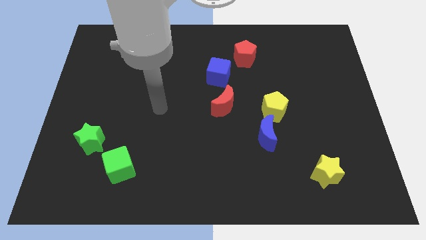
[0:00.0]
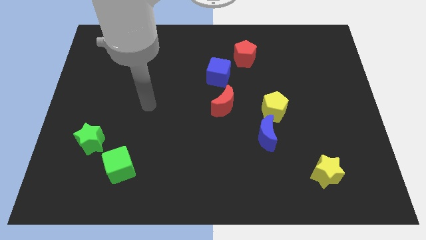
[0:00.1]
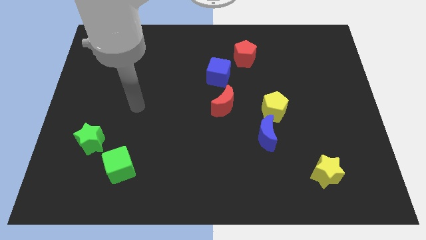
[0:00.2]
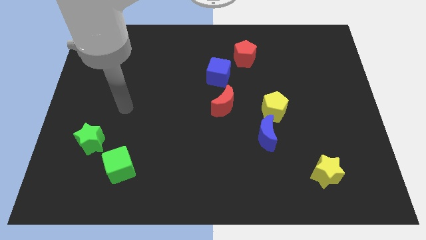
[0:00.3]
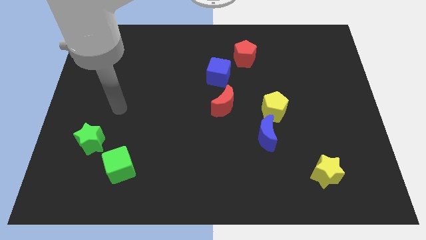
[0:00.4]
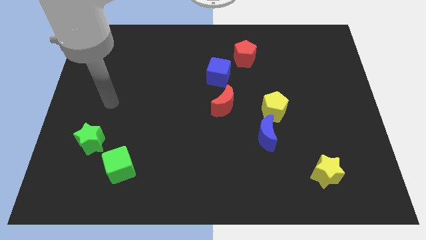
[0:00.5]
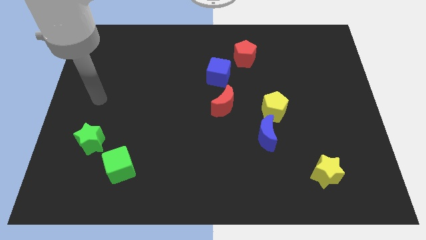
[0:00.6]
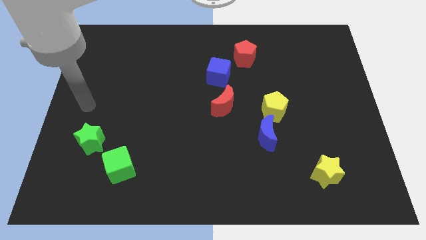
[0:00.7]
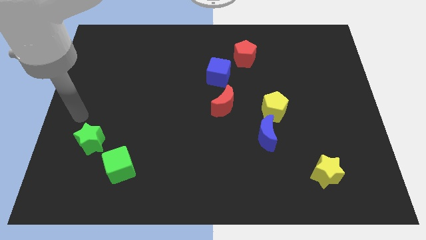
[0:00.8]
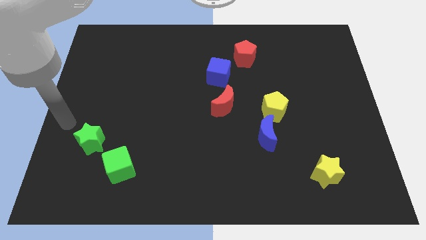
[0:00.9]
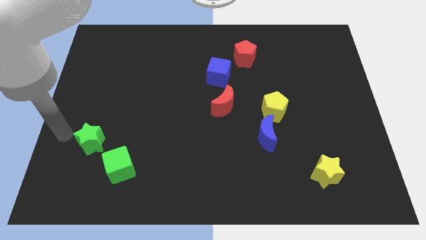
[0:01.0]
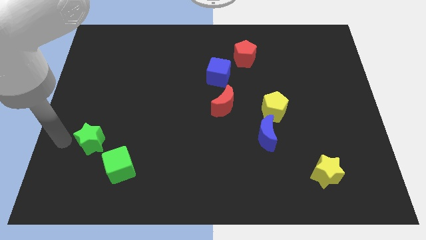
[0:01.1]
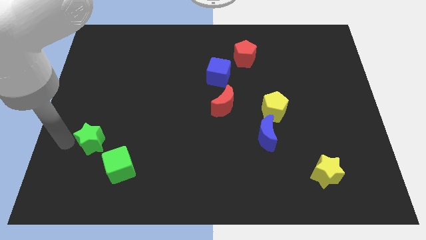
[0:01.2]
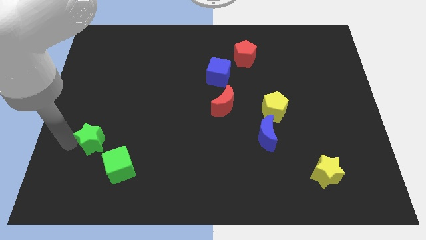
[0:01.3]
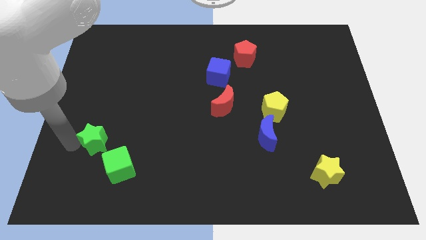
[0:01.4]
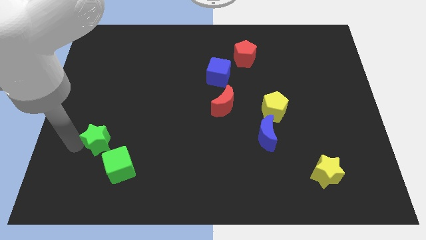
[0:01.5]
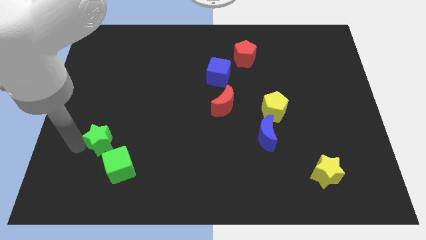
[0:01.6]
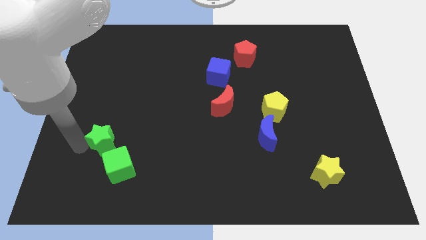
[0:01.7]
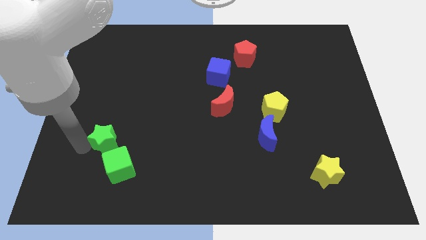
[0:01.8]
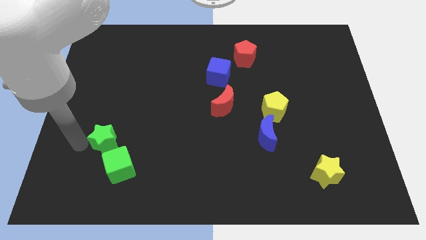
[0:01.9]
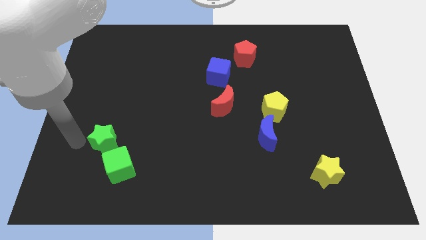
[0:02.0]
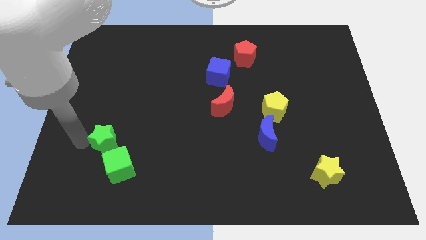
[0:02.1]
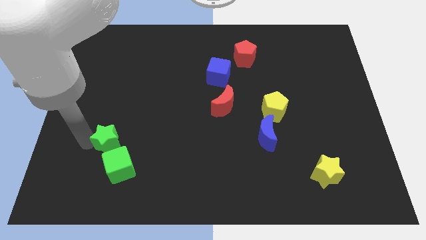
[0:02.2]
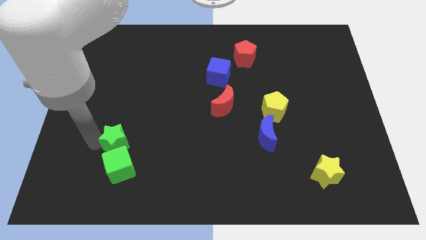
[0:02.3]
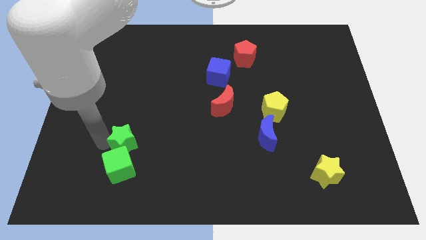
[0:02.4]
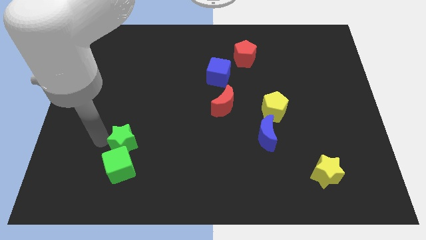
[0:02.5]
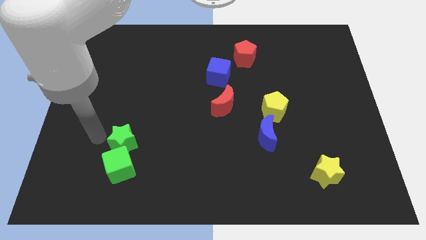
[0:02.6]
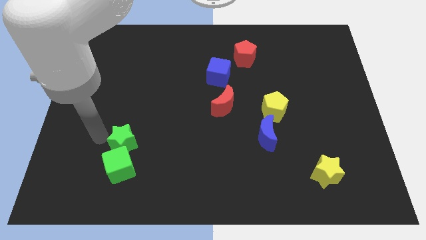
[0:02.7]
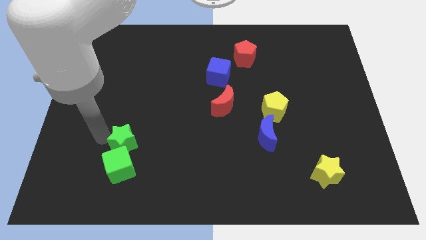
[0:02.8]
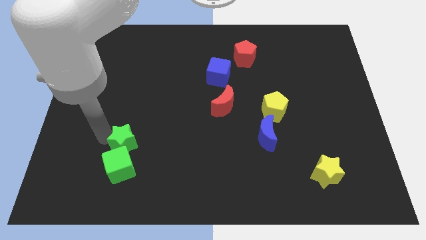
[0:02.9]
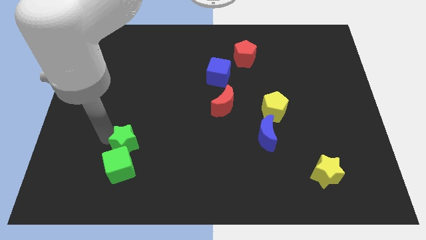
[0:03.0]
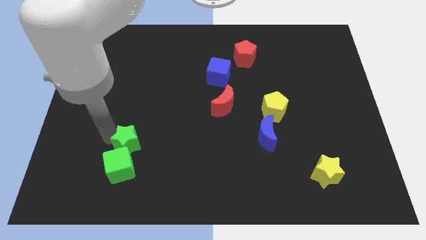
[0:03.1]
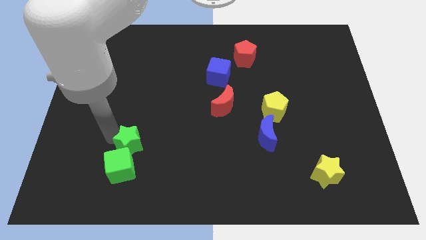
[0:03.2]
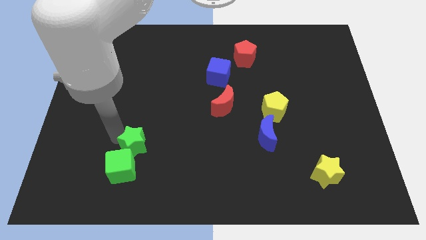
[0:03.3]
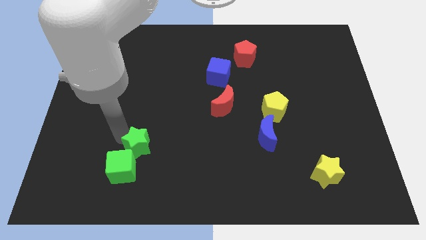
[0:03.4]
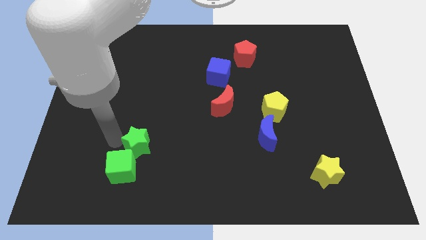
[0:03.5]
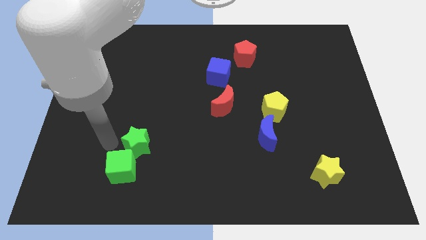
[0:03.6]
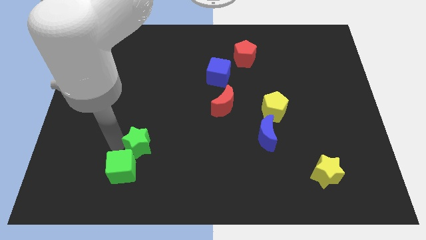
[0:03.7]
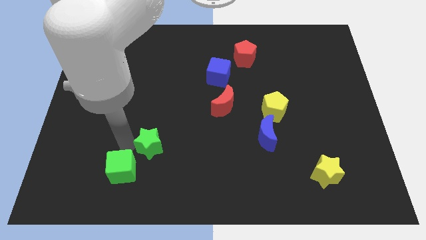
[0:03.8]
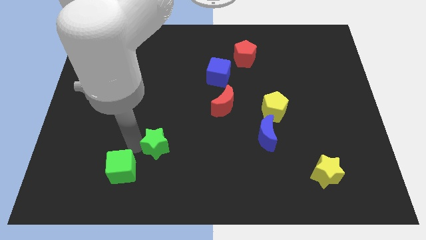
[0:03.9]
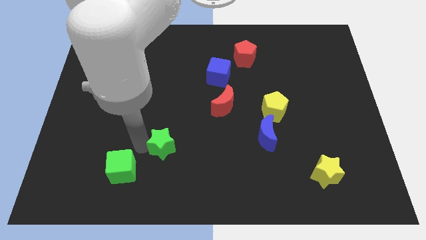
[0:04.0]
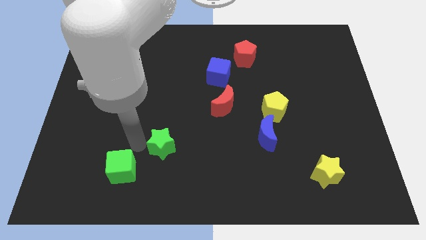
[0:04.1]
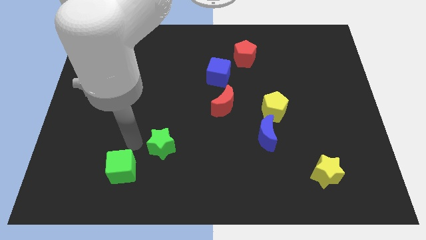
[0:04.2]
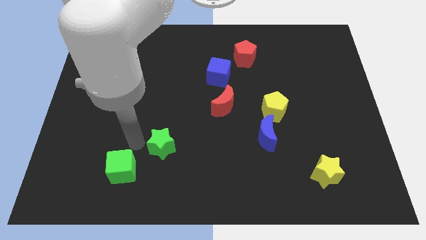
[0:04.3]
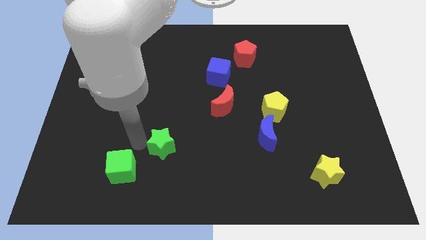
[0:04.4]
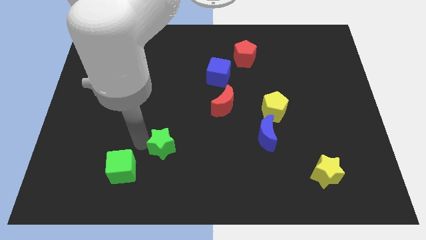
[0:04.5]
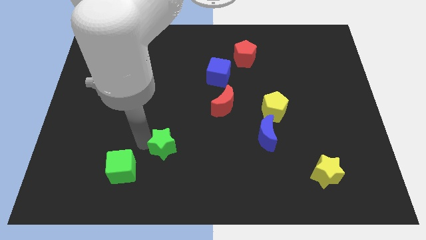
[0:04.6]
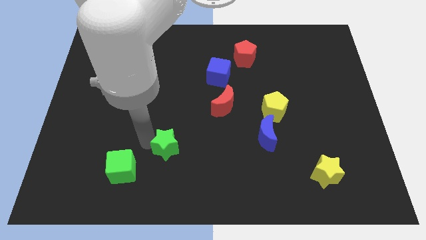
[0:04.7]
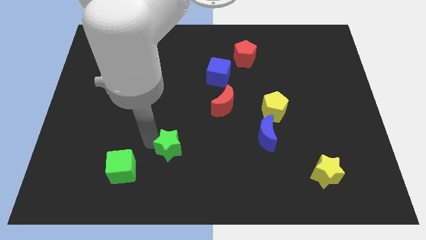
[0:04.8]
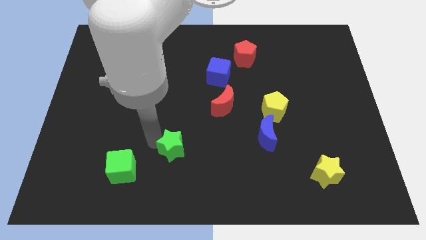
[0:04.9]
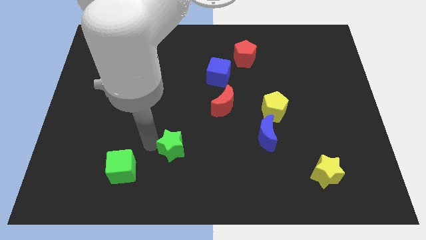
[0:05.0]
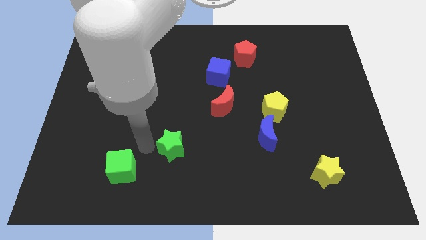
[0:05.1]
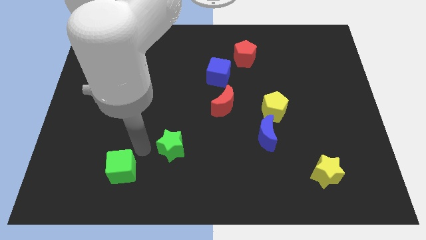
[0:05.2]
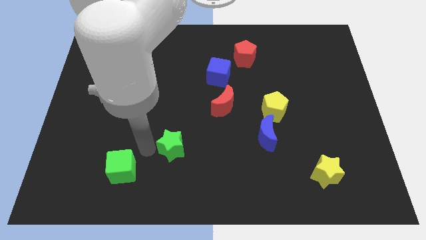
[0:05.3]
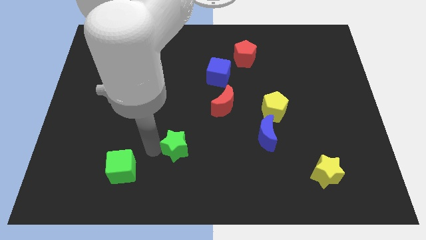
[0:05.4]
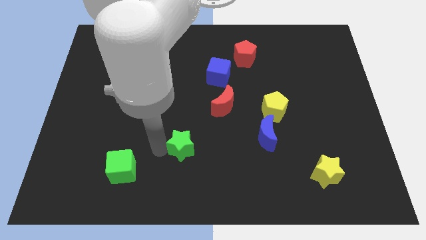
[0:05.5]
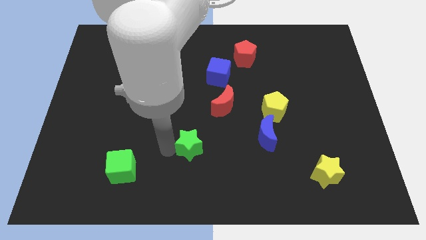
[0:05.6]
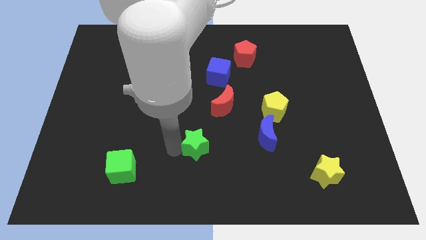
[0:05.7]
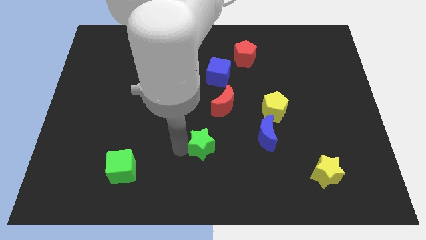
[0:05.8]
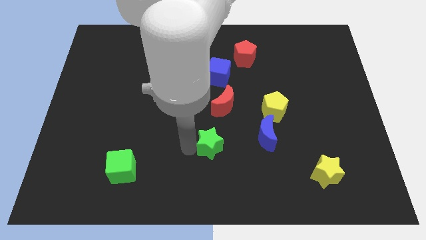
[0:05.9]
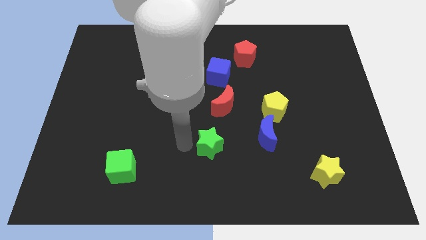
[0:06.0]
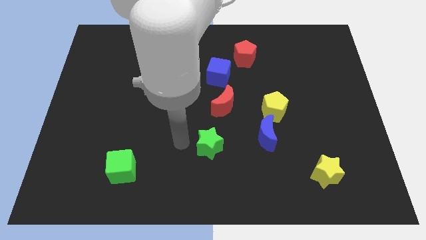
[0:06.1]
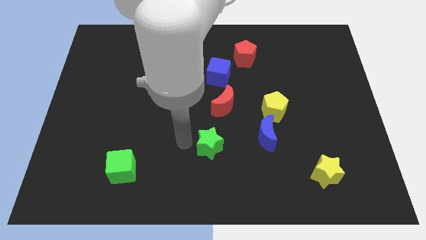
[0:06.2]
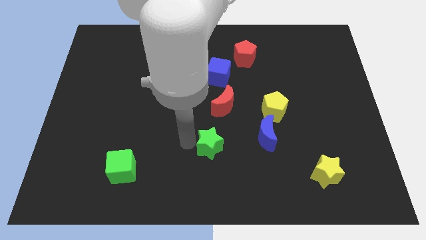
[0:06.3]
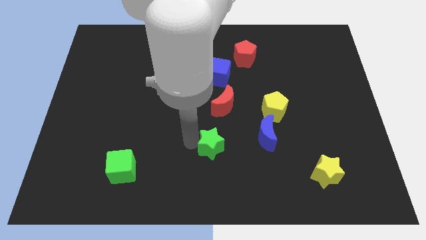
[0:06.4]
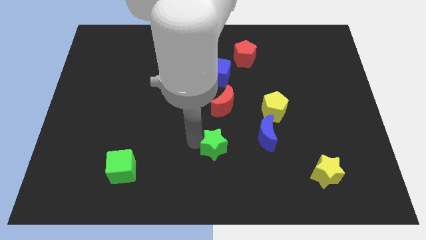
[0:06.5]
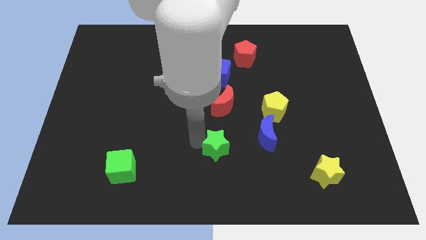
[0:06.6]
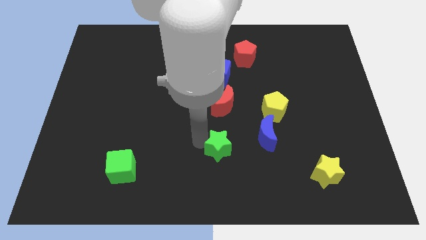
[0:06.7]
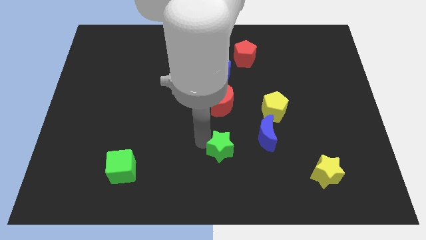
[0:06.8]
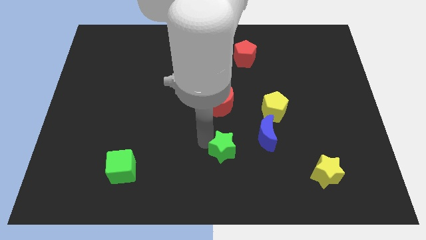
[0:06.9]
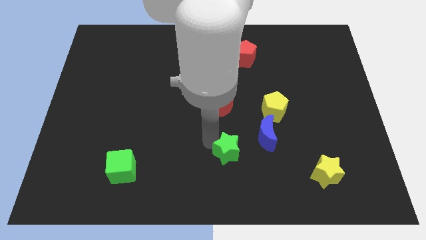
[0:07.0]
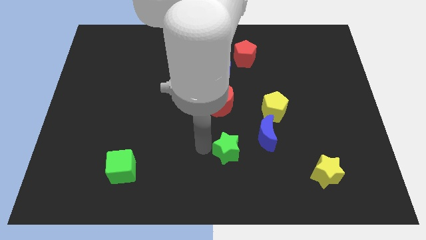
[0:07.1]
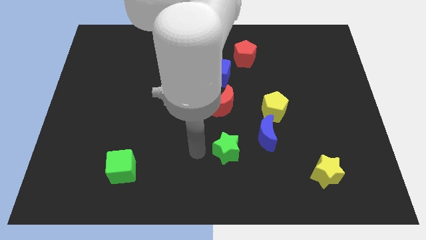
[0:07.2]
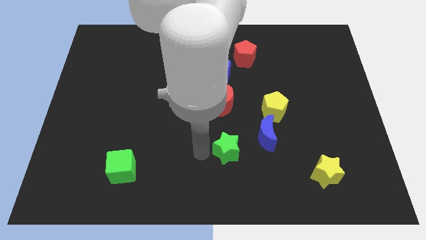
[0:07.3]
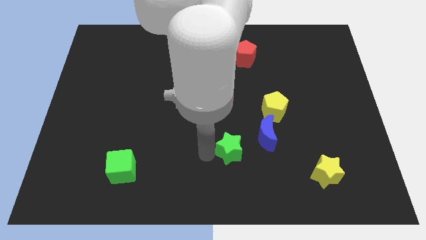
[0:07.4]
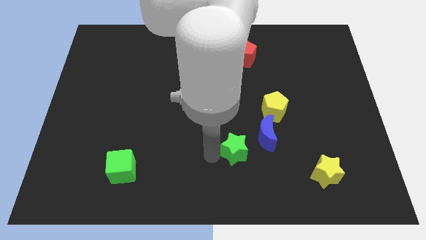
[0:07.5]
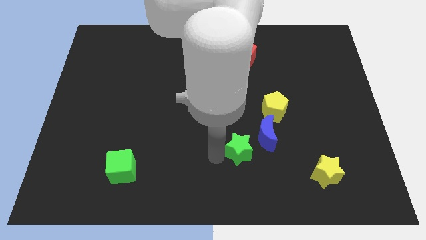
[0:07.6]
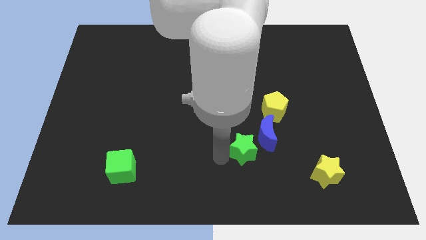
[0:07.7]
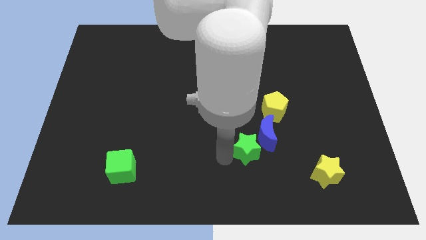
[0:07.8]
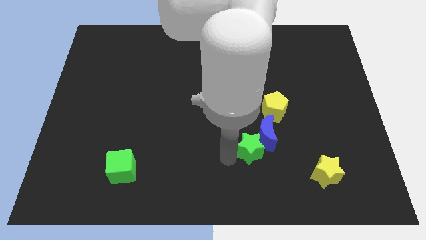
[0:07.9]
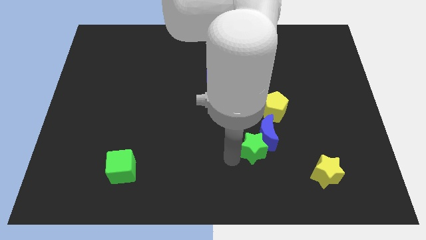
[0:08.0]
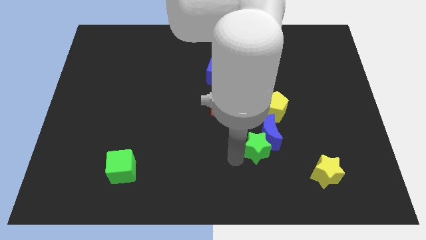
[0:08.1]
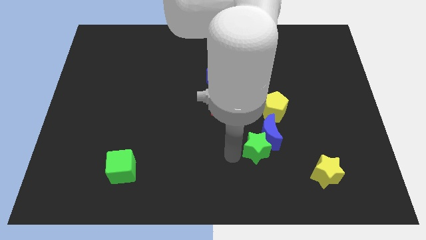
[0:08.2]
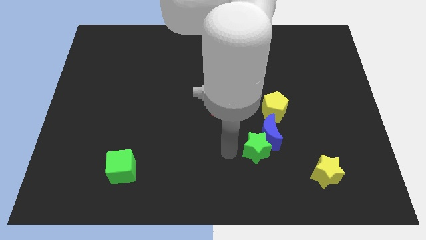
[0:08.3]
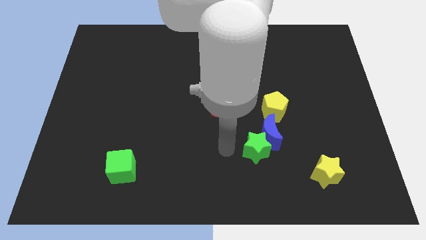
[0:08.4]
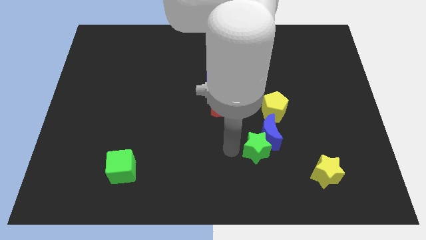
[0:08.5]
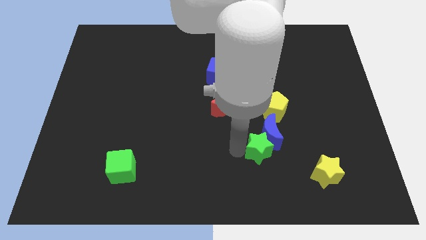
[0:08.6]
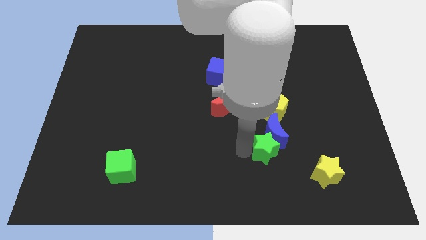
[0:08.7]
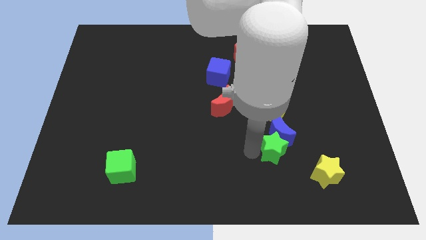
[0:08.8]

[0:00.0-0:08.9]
push the green star to the top left of the yellow star
